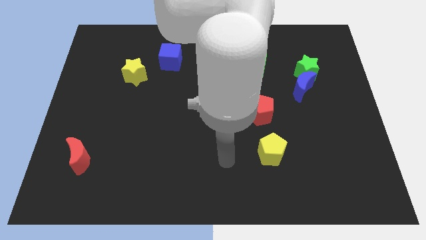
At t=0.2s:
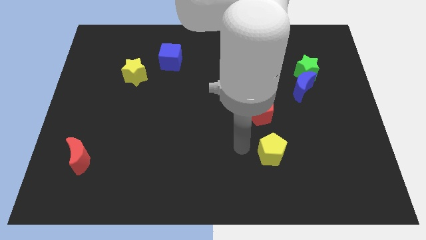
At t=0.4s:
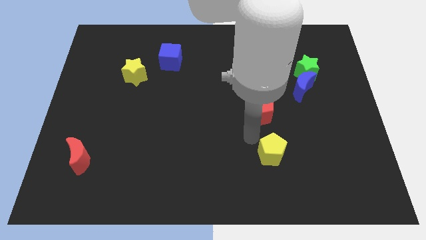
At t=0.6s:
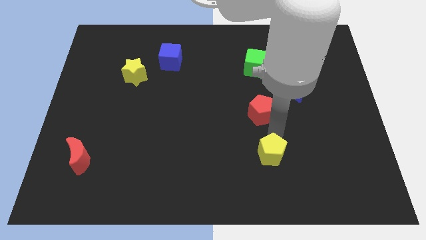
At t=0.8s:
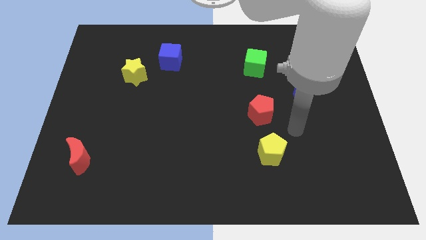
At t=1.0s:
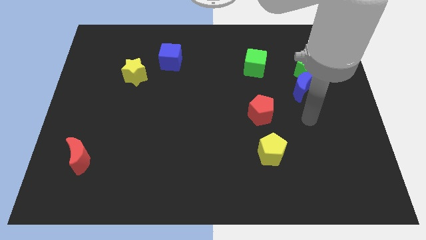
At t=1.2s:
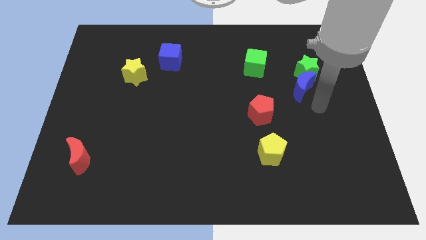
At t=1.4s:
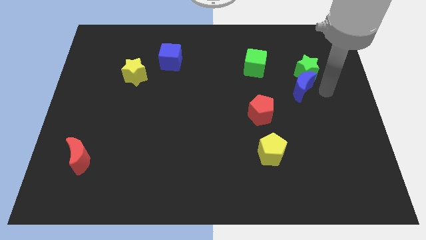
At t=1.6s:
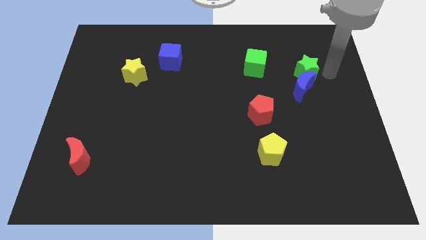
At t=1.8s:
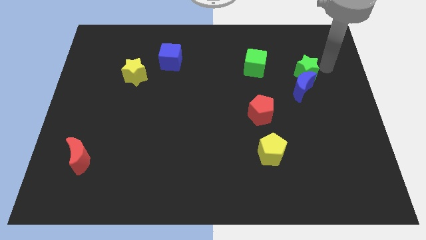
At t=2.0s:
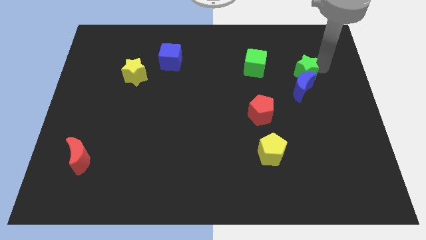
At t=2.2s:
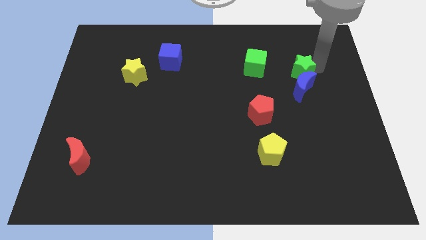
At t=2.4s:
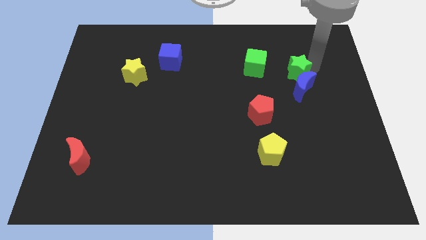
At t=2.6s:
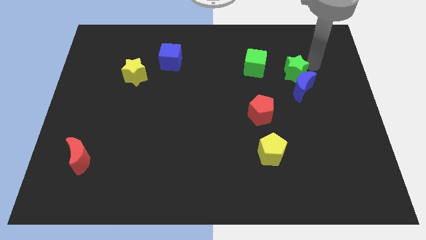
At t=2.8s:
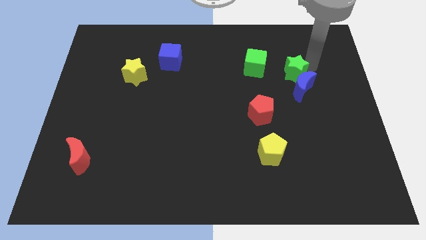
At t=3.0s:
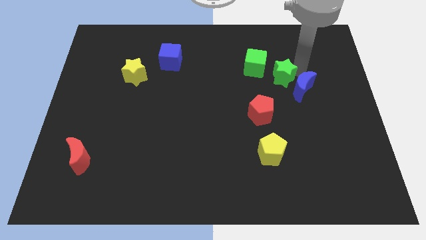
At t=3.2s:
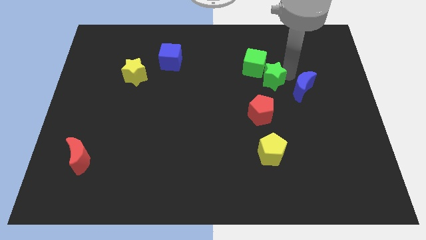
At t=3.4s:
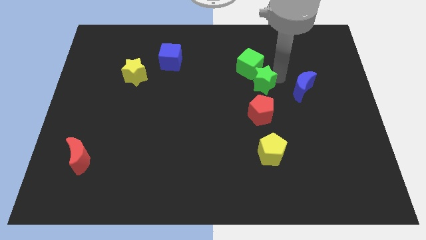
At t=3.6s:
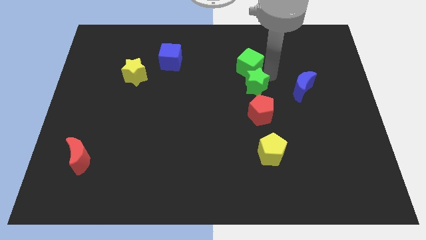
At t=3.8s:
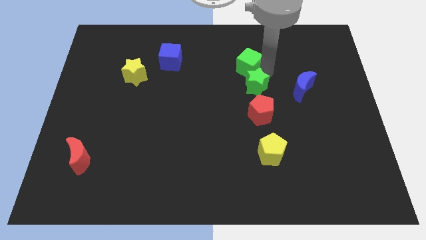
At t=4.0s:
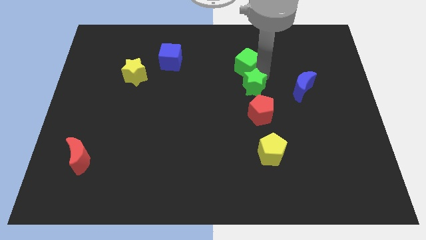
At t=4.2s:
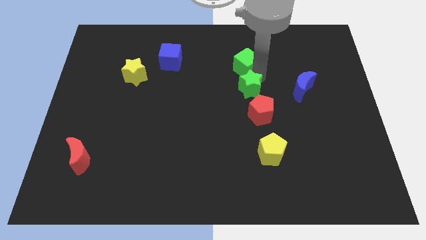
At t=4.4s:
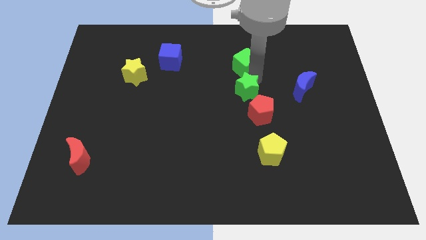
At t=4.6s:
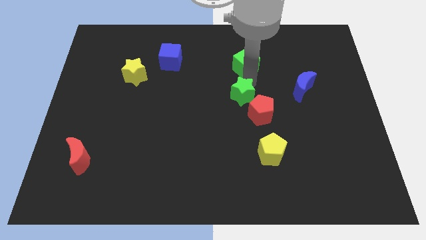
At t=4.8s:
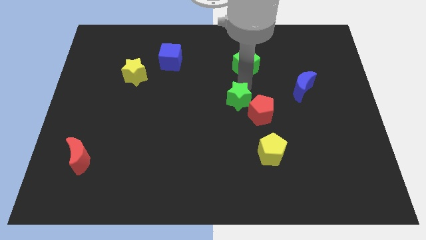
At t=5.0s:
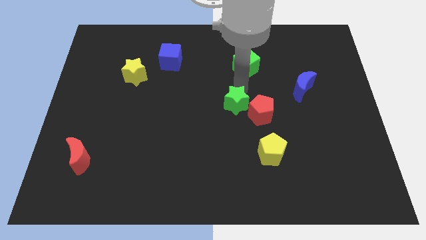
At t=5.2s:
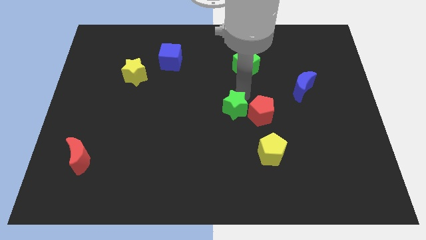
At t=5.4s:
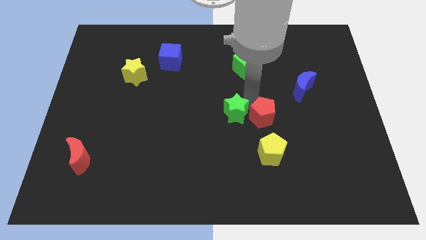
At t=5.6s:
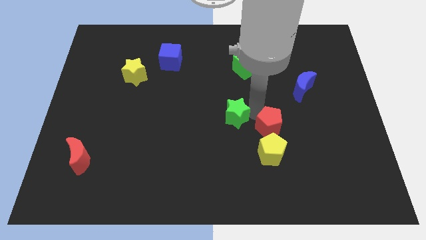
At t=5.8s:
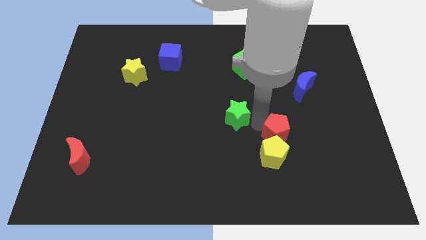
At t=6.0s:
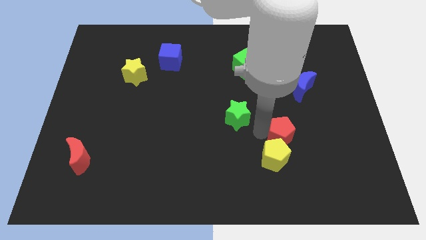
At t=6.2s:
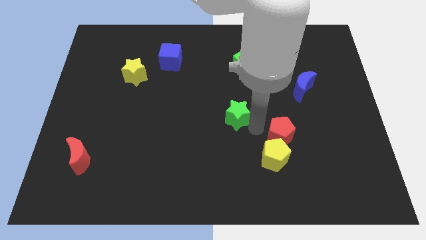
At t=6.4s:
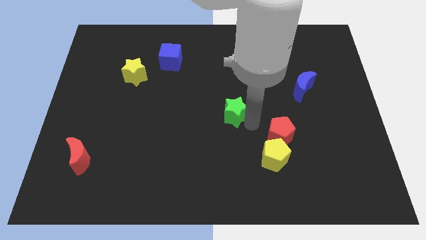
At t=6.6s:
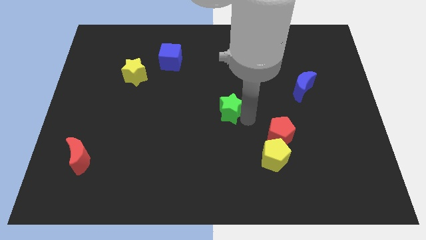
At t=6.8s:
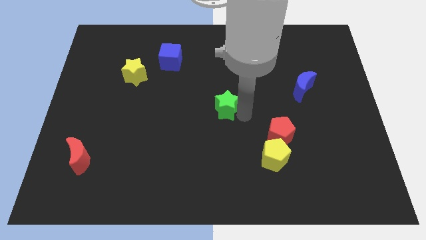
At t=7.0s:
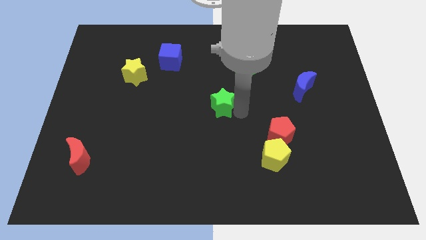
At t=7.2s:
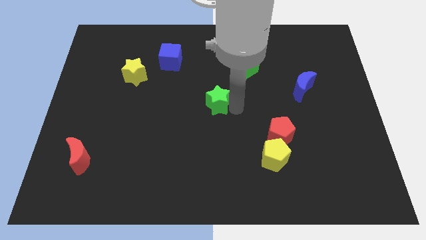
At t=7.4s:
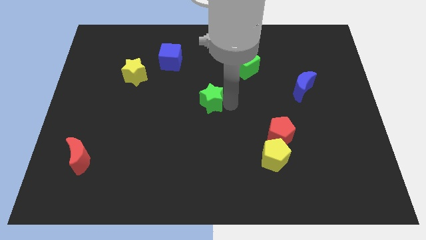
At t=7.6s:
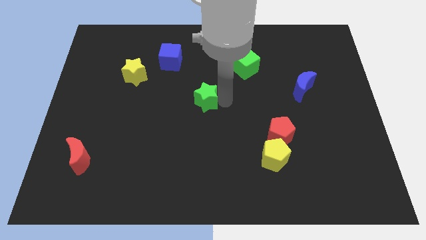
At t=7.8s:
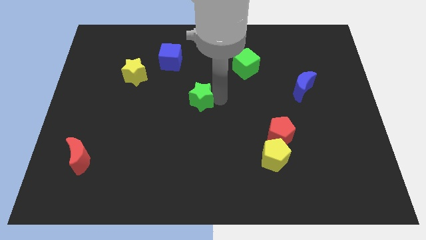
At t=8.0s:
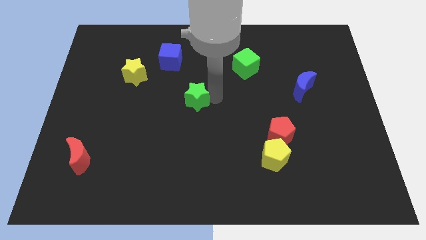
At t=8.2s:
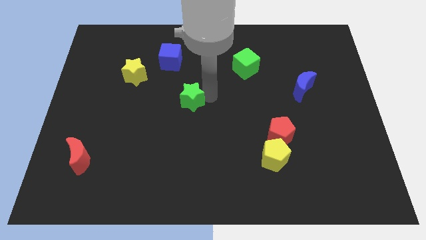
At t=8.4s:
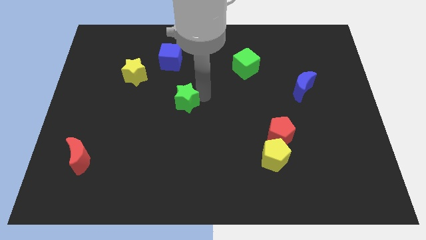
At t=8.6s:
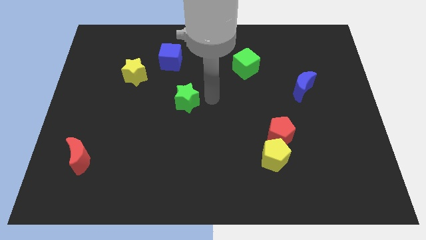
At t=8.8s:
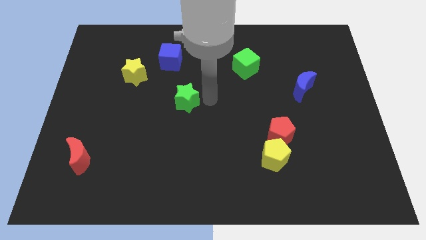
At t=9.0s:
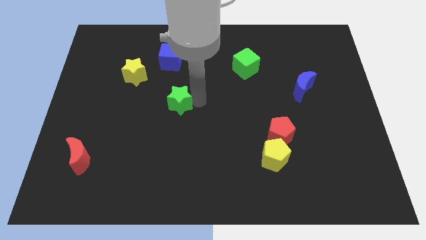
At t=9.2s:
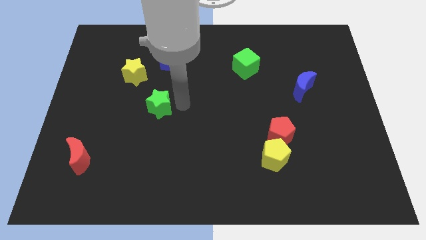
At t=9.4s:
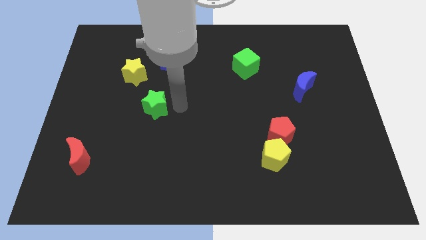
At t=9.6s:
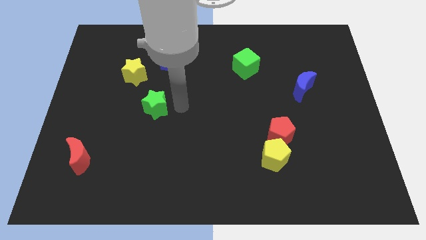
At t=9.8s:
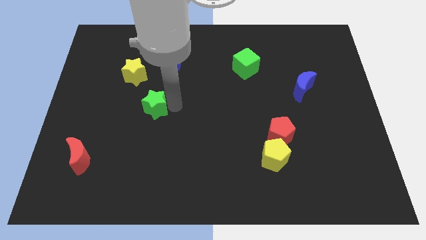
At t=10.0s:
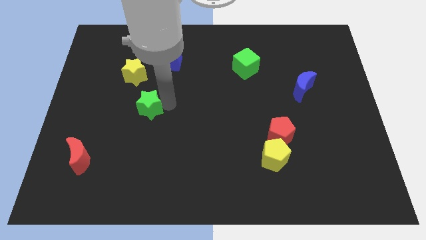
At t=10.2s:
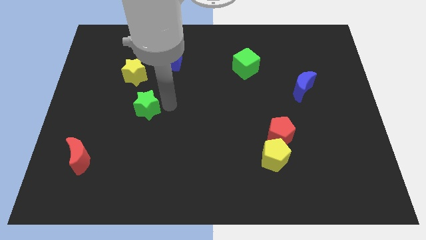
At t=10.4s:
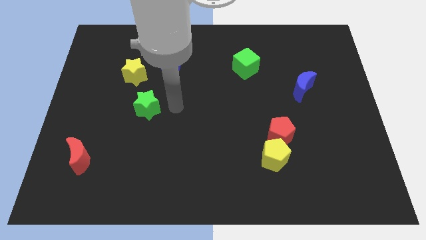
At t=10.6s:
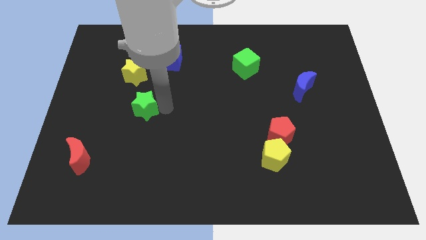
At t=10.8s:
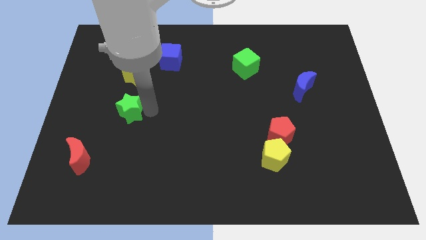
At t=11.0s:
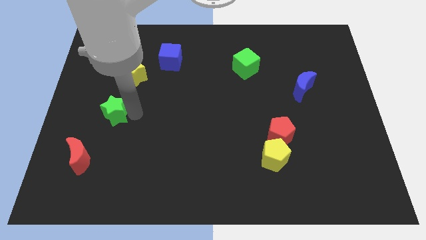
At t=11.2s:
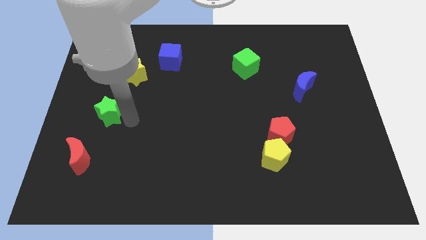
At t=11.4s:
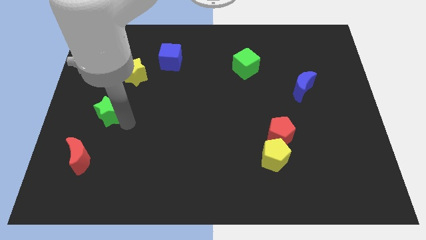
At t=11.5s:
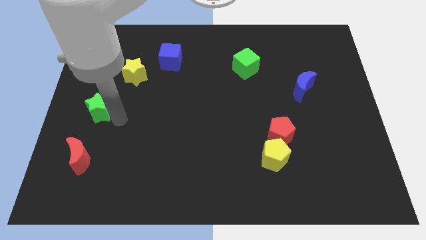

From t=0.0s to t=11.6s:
put the green star to the center left
